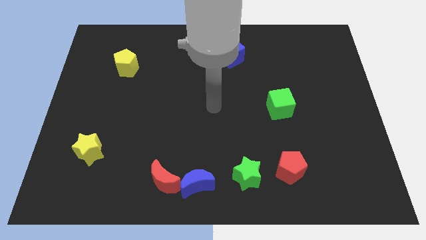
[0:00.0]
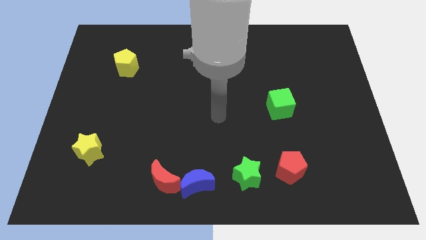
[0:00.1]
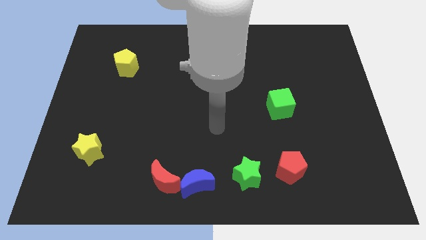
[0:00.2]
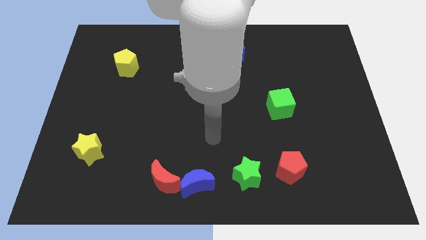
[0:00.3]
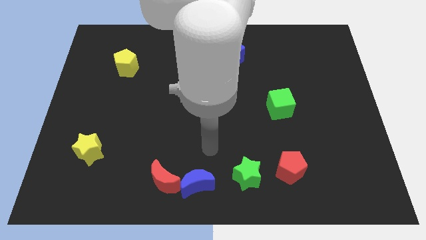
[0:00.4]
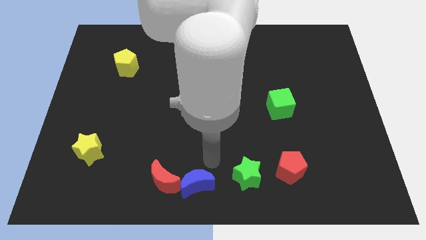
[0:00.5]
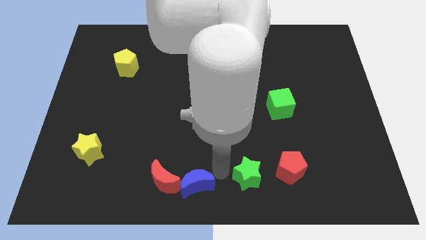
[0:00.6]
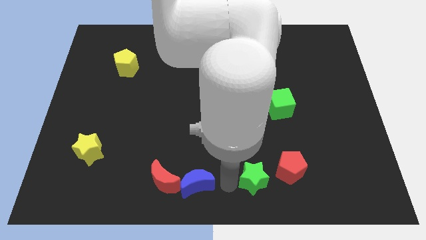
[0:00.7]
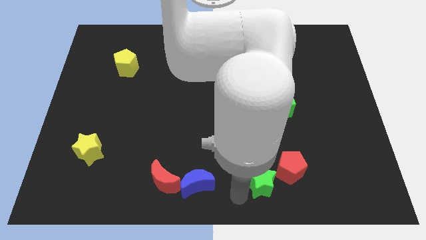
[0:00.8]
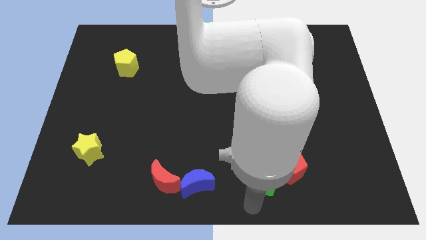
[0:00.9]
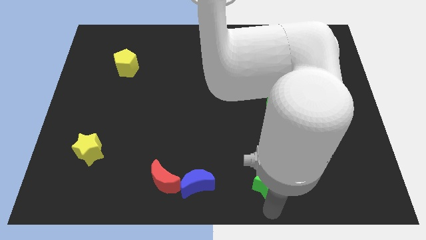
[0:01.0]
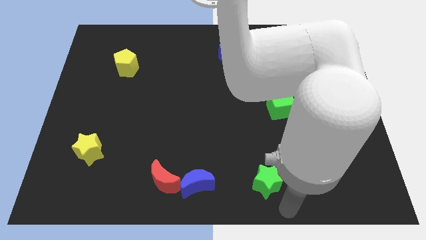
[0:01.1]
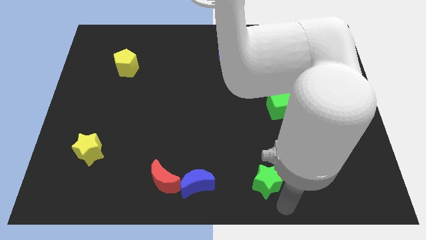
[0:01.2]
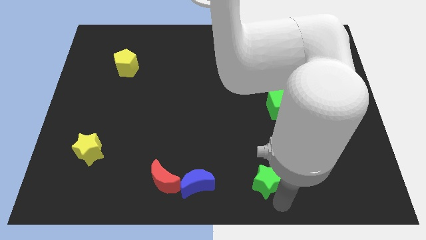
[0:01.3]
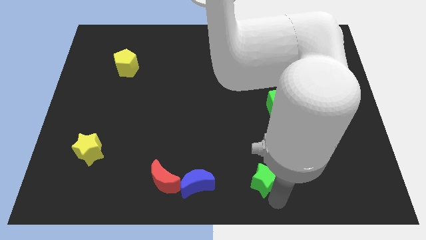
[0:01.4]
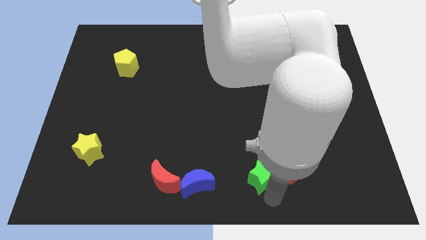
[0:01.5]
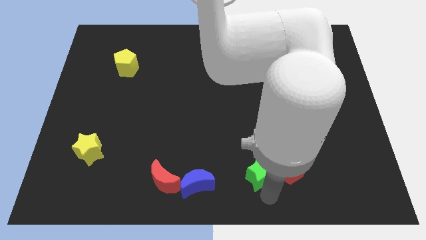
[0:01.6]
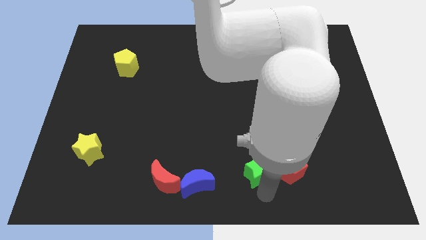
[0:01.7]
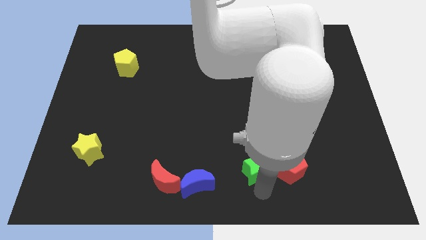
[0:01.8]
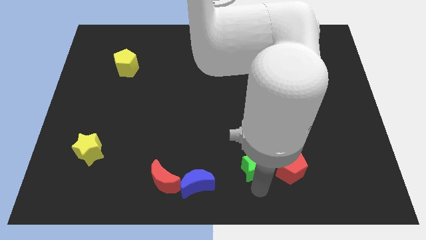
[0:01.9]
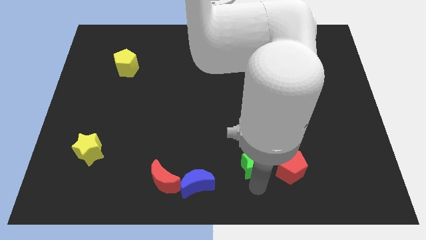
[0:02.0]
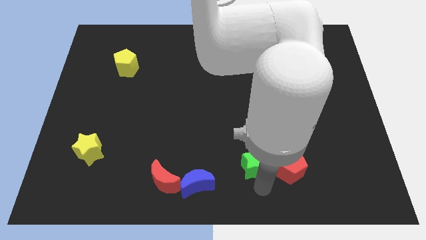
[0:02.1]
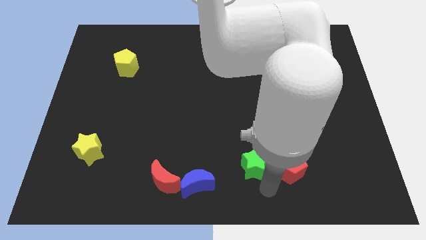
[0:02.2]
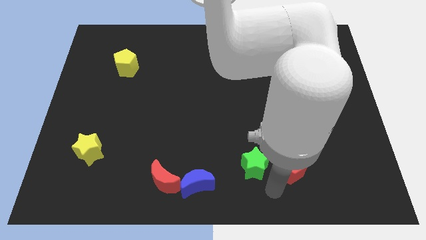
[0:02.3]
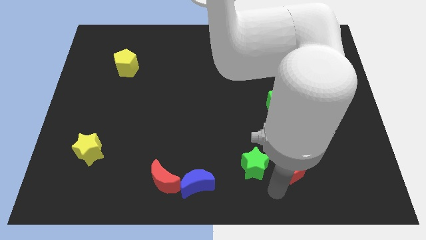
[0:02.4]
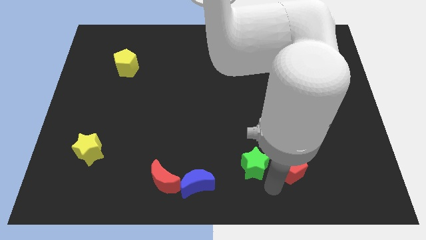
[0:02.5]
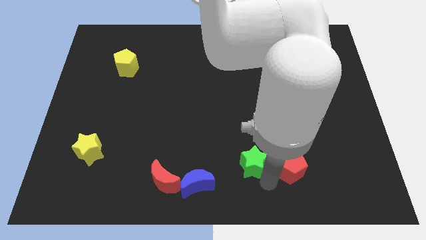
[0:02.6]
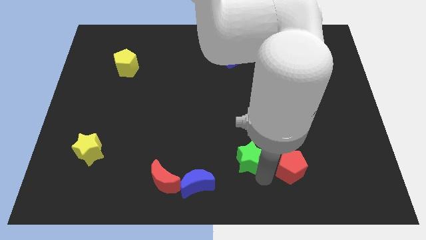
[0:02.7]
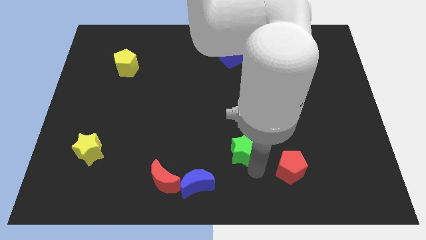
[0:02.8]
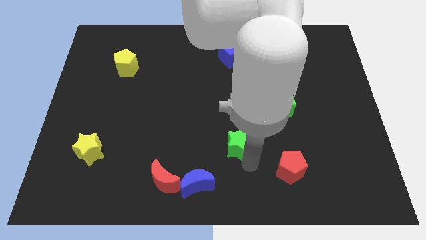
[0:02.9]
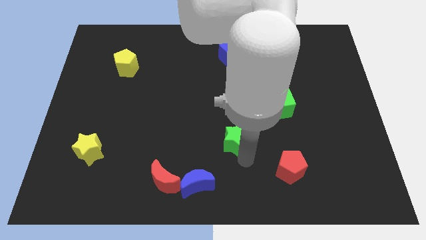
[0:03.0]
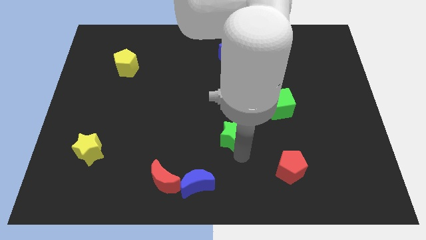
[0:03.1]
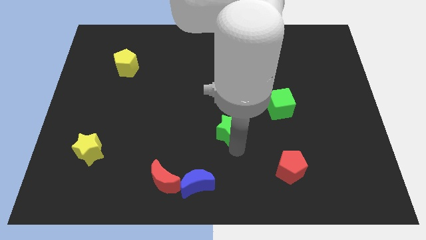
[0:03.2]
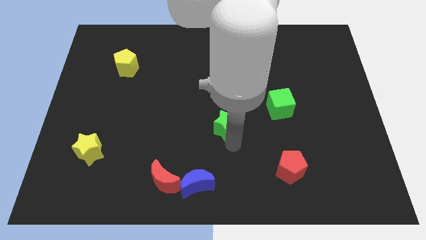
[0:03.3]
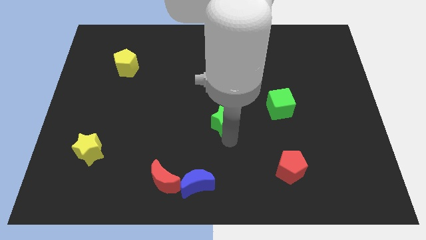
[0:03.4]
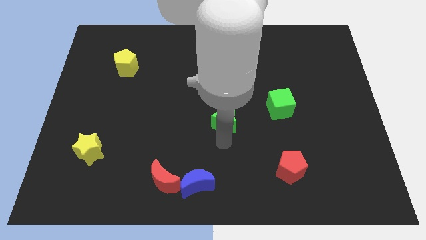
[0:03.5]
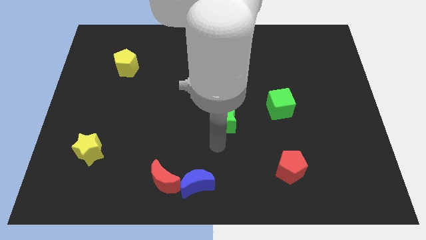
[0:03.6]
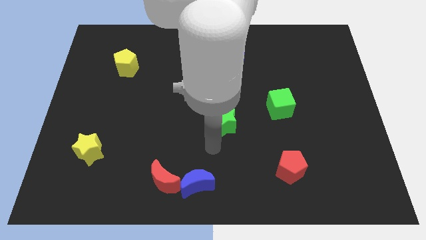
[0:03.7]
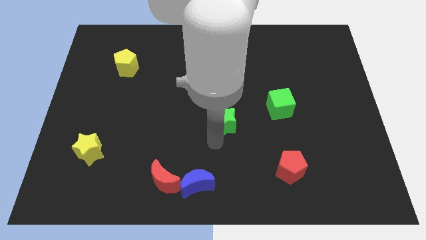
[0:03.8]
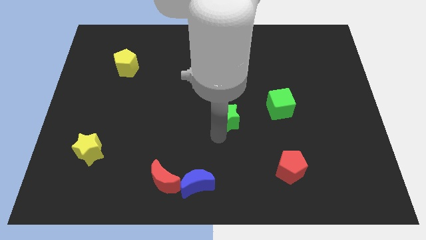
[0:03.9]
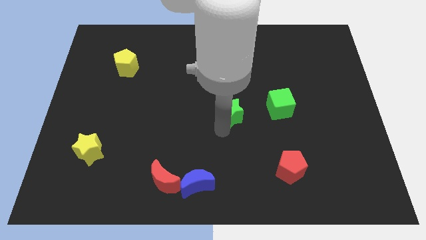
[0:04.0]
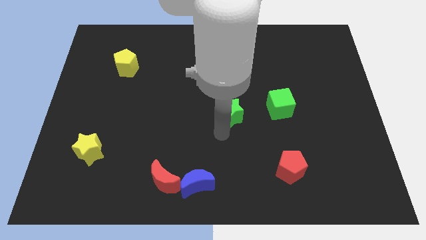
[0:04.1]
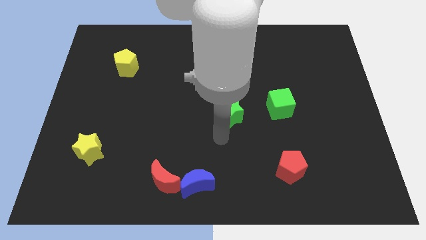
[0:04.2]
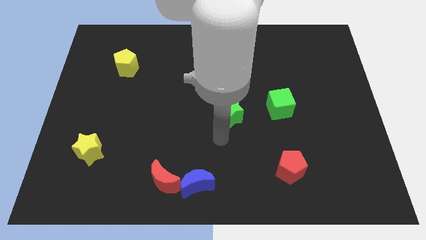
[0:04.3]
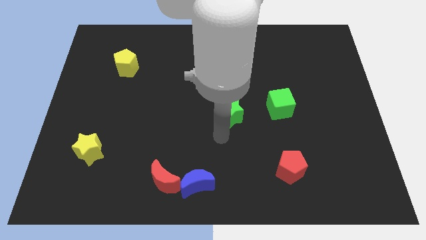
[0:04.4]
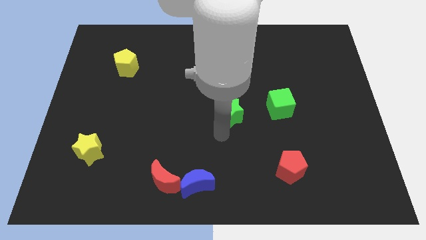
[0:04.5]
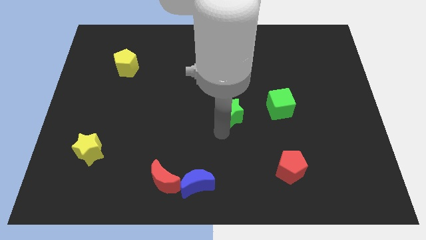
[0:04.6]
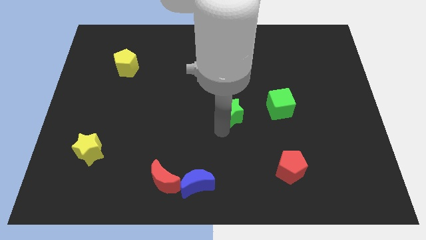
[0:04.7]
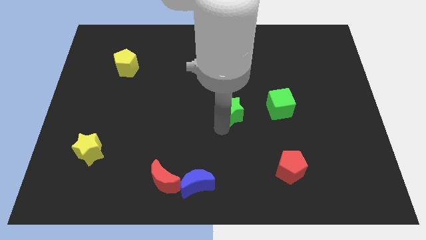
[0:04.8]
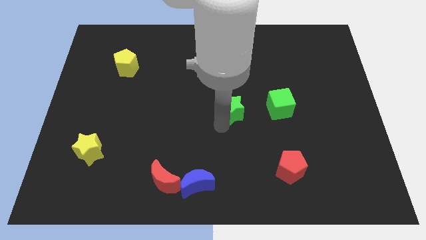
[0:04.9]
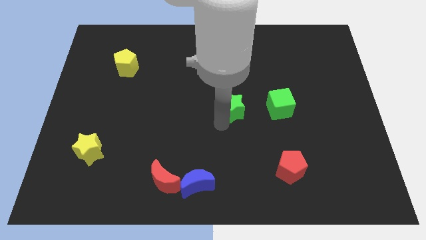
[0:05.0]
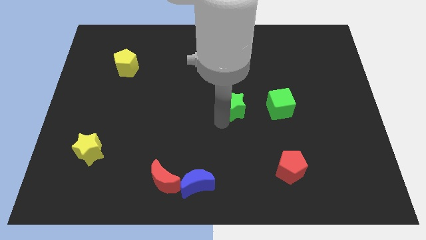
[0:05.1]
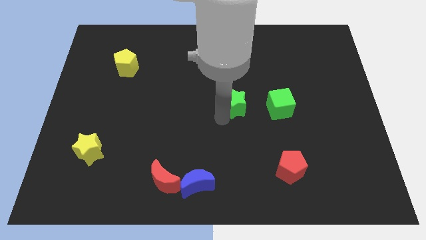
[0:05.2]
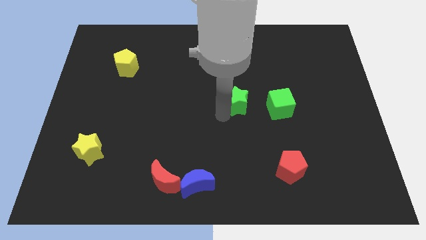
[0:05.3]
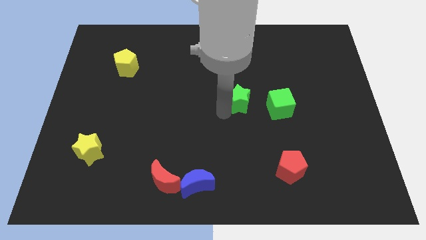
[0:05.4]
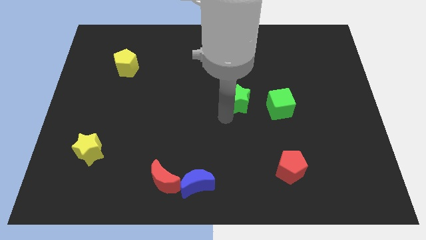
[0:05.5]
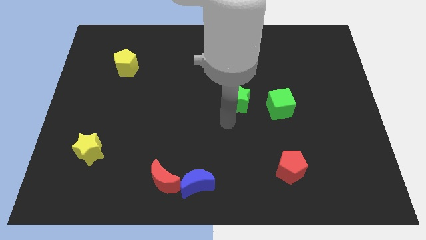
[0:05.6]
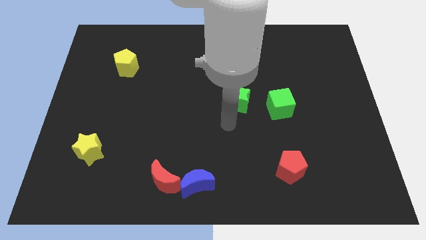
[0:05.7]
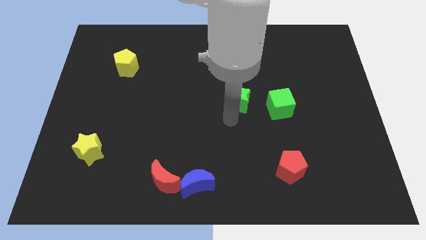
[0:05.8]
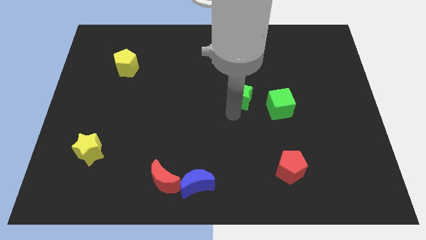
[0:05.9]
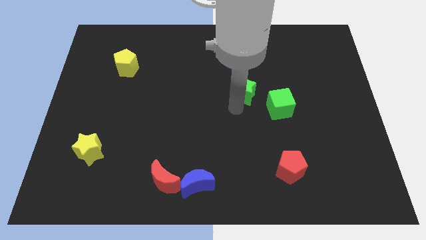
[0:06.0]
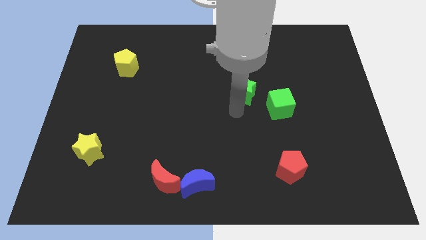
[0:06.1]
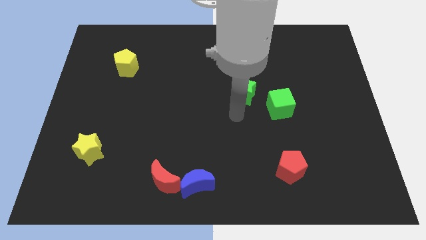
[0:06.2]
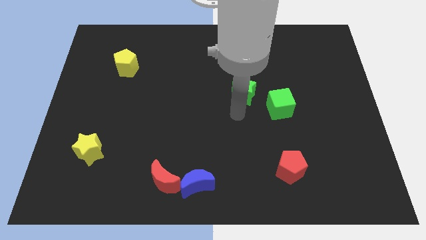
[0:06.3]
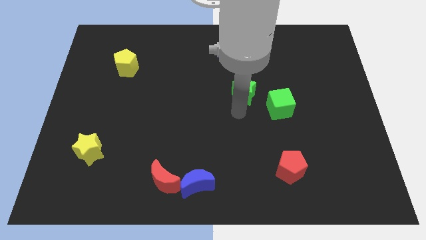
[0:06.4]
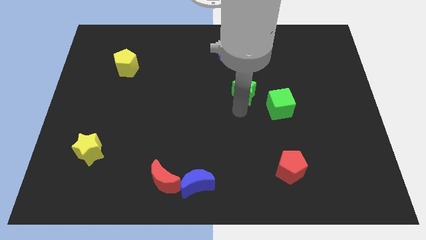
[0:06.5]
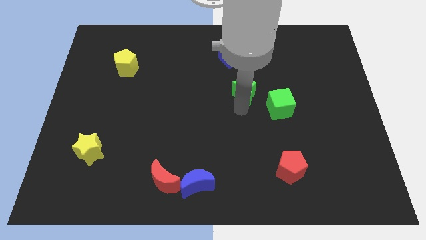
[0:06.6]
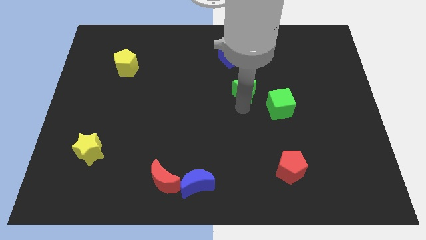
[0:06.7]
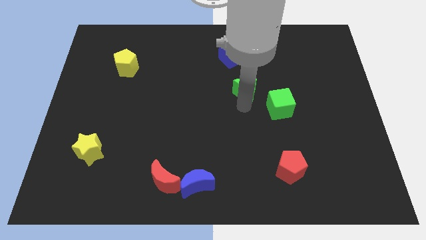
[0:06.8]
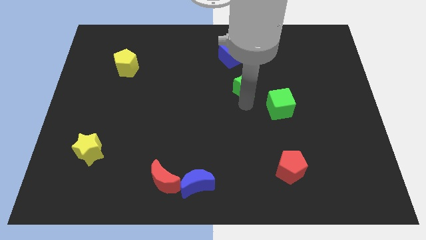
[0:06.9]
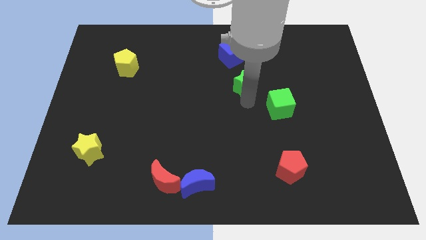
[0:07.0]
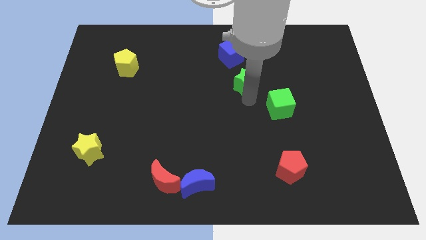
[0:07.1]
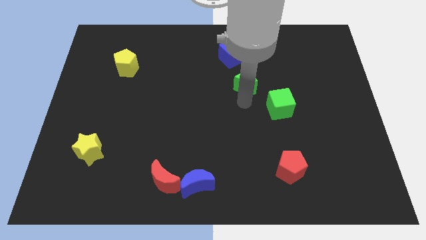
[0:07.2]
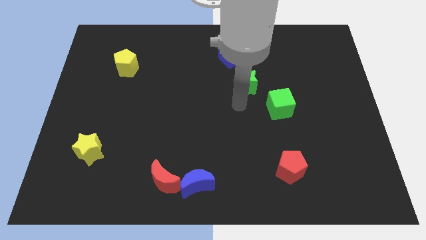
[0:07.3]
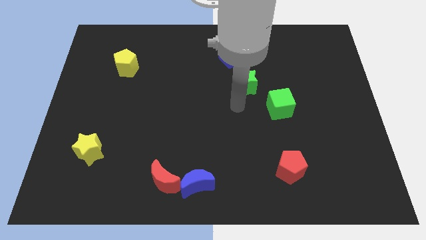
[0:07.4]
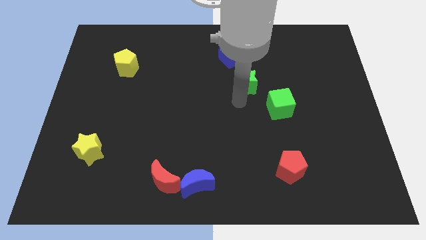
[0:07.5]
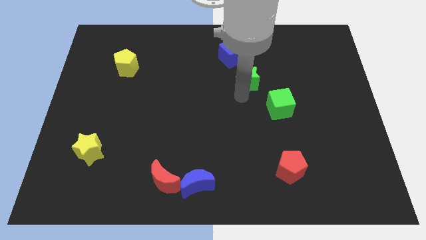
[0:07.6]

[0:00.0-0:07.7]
move the green star to the bottom right of the blue cube

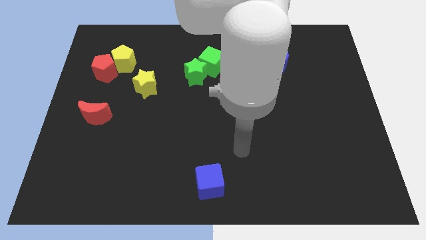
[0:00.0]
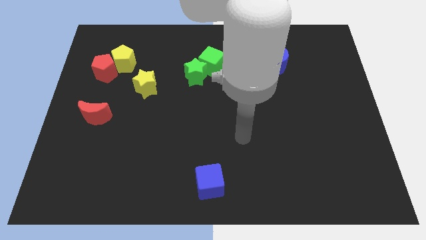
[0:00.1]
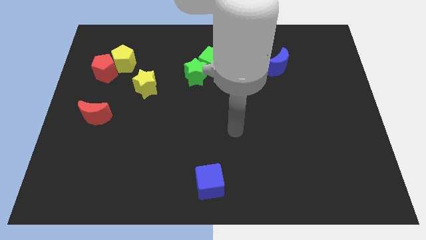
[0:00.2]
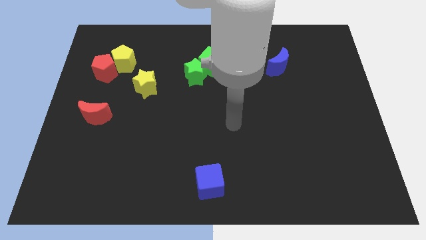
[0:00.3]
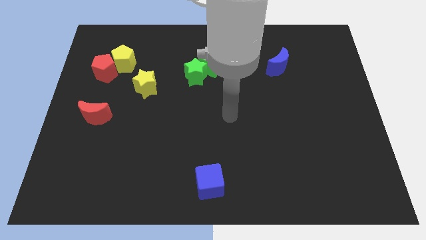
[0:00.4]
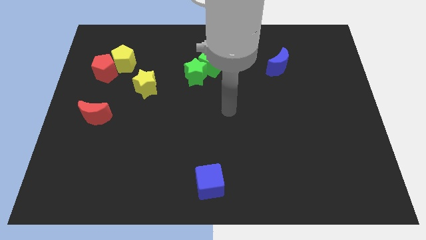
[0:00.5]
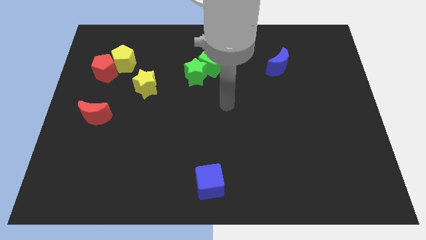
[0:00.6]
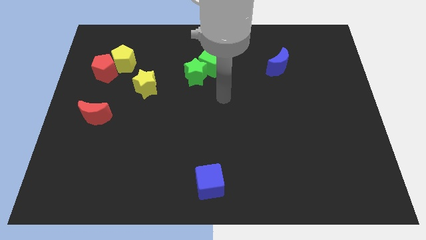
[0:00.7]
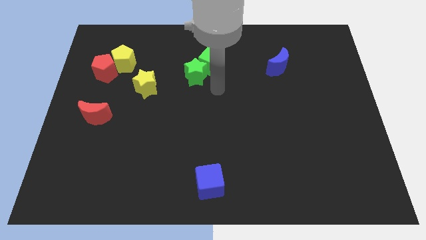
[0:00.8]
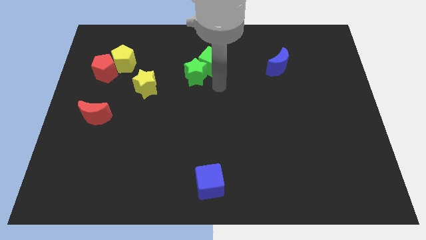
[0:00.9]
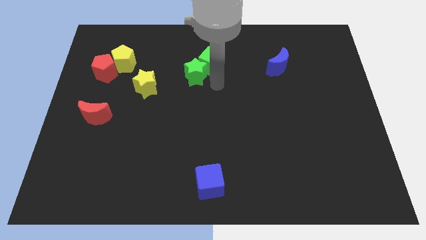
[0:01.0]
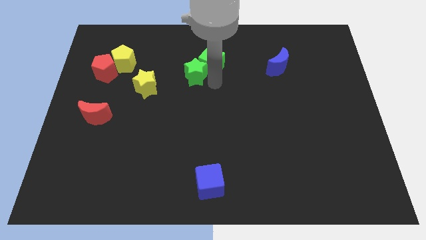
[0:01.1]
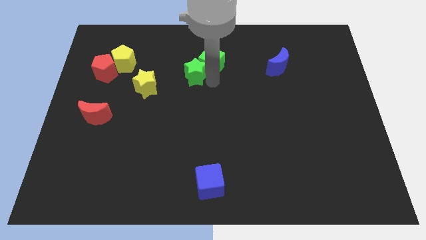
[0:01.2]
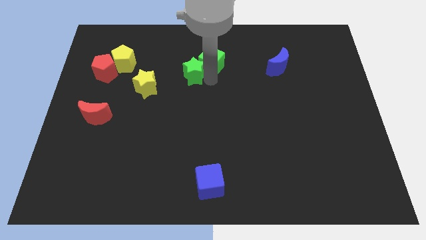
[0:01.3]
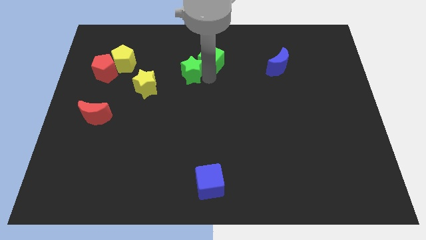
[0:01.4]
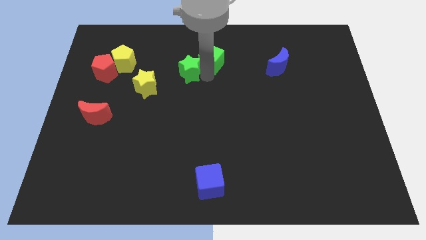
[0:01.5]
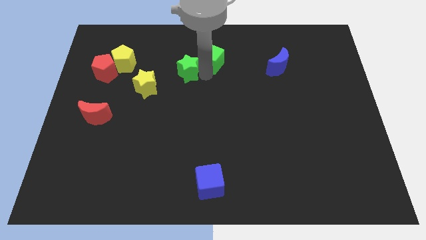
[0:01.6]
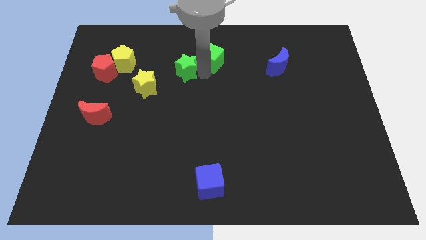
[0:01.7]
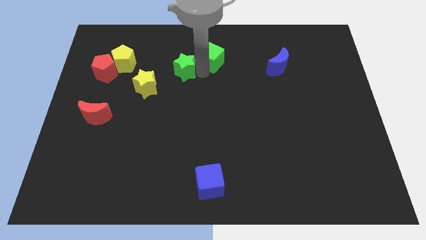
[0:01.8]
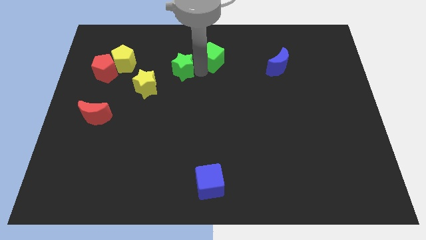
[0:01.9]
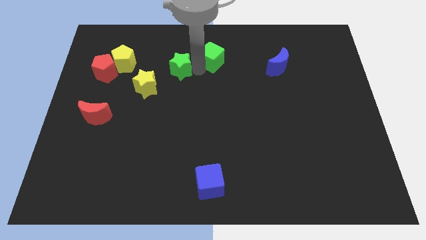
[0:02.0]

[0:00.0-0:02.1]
move the green star right of the yellow pentagon
